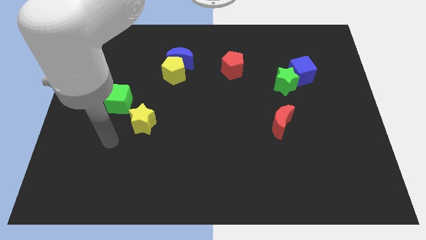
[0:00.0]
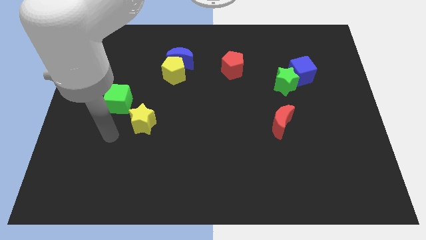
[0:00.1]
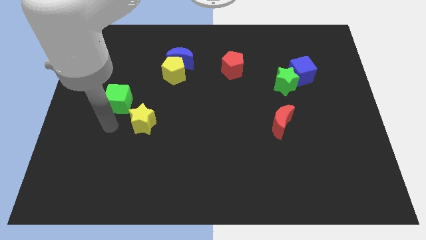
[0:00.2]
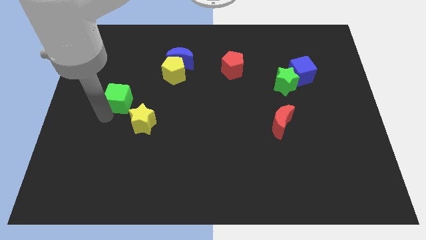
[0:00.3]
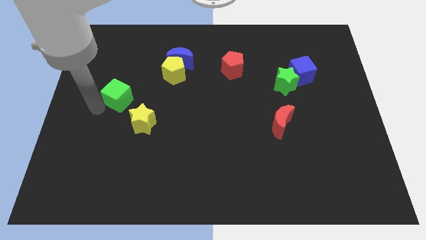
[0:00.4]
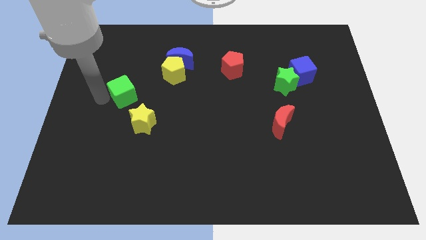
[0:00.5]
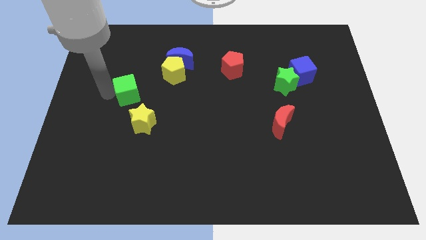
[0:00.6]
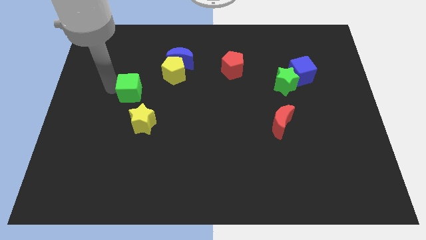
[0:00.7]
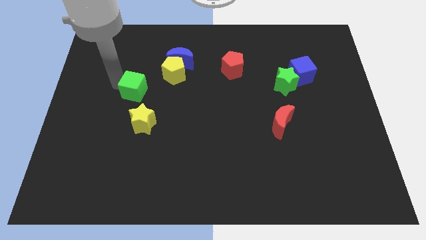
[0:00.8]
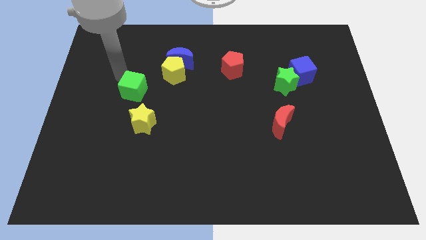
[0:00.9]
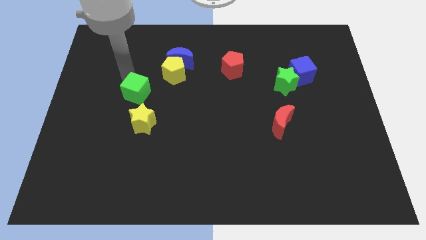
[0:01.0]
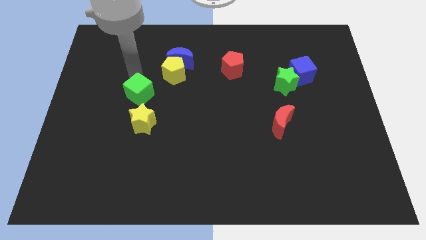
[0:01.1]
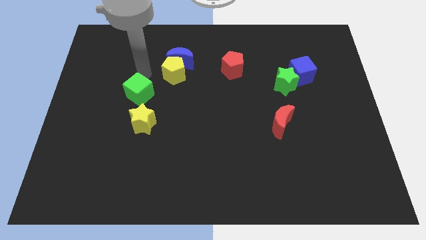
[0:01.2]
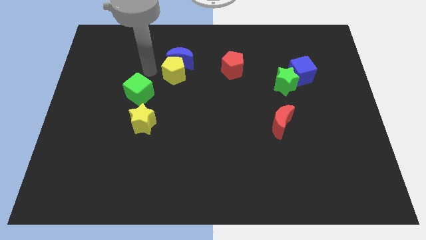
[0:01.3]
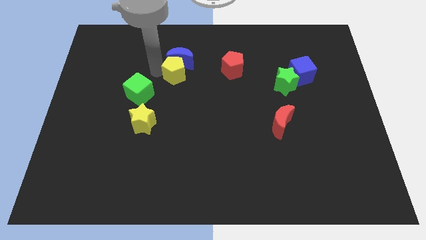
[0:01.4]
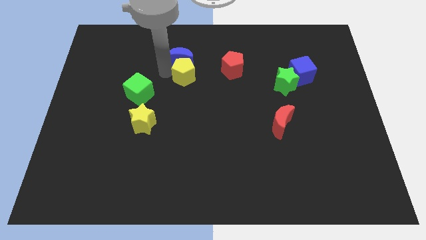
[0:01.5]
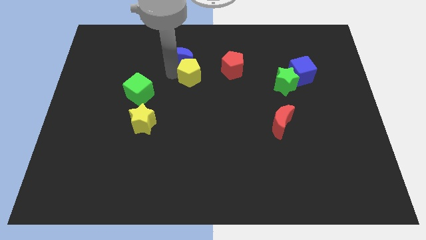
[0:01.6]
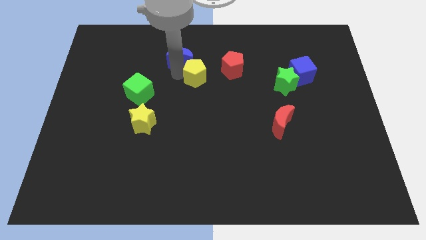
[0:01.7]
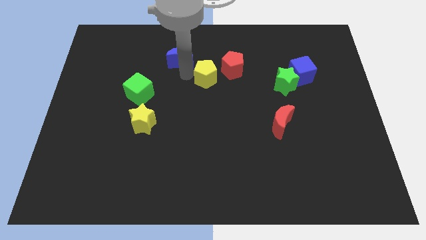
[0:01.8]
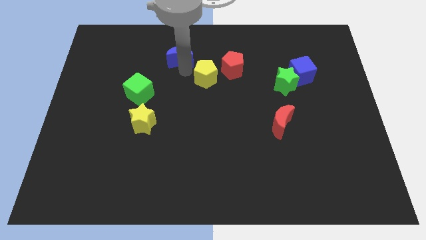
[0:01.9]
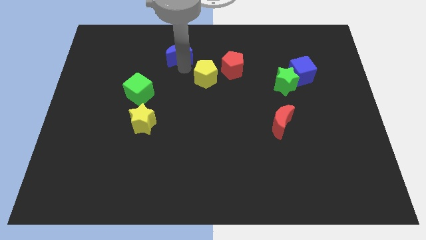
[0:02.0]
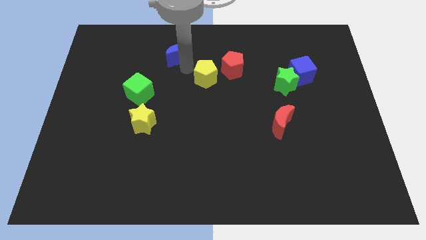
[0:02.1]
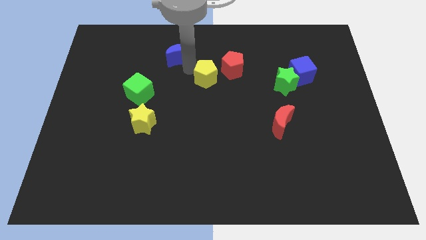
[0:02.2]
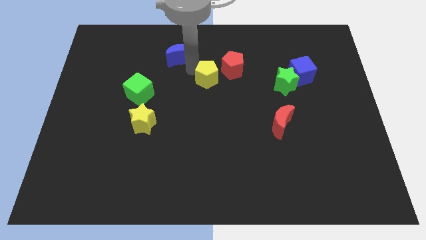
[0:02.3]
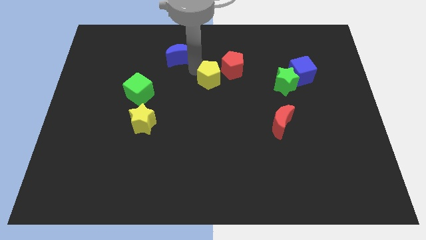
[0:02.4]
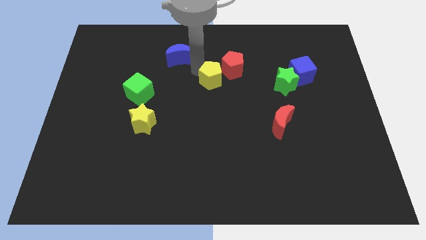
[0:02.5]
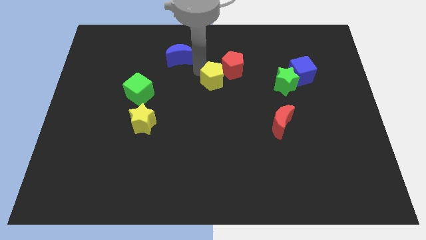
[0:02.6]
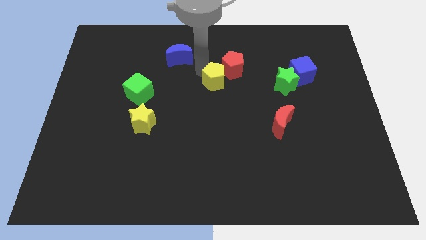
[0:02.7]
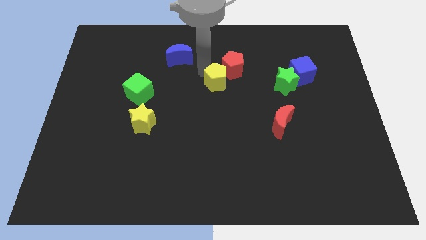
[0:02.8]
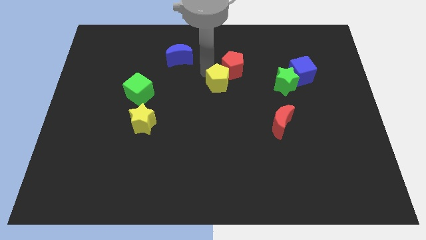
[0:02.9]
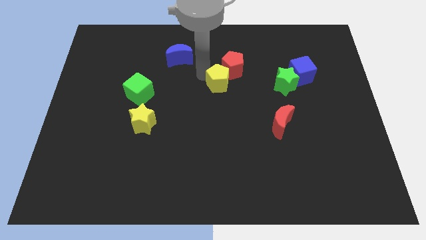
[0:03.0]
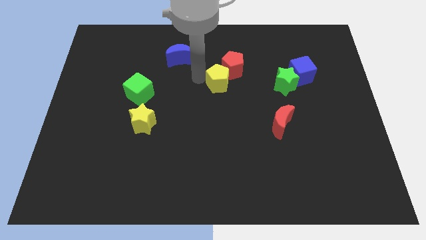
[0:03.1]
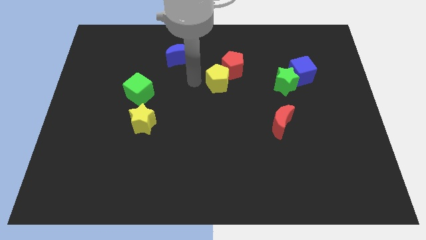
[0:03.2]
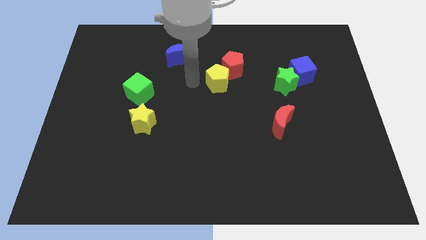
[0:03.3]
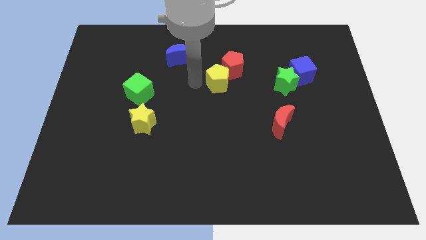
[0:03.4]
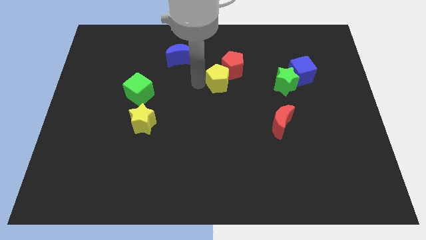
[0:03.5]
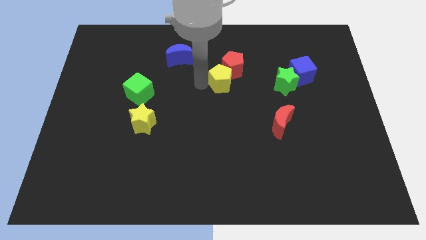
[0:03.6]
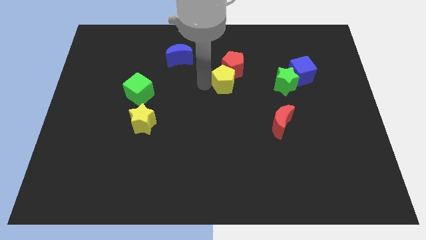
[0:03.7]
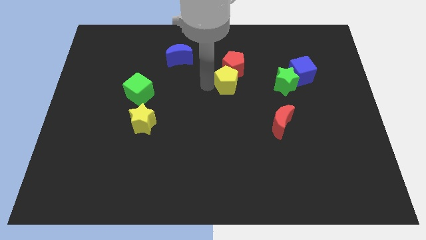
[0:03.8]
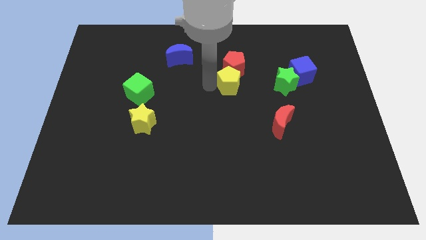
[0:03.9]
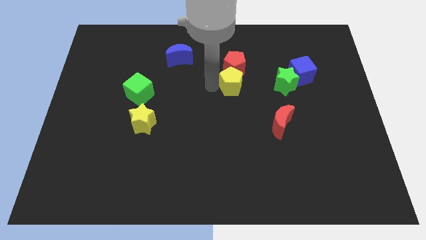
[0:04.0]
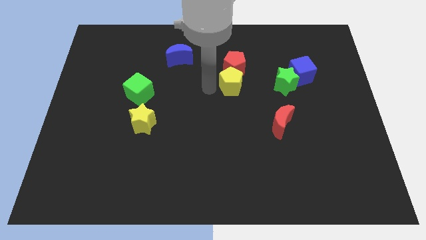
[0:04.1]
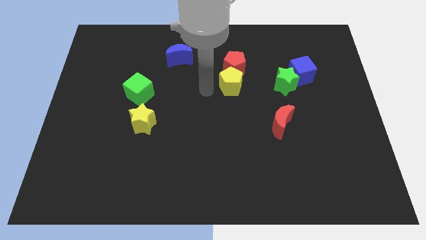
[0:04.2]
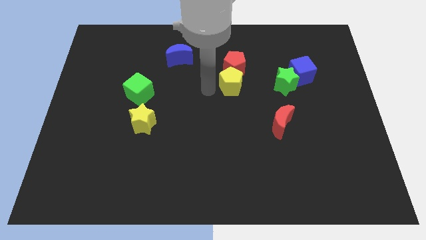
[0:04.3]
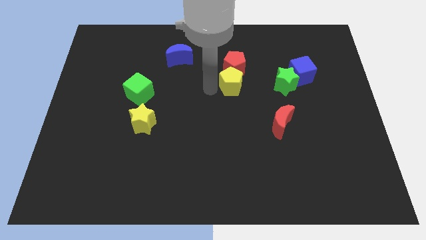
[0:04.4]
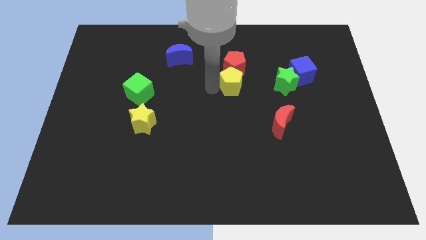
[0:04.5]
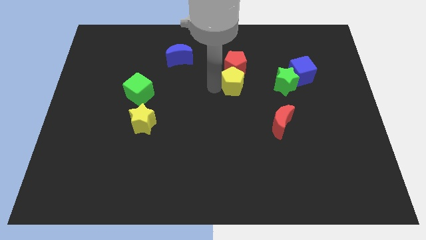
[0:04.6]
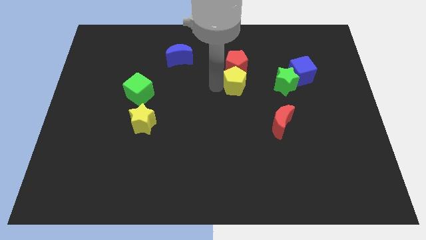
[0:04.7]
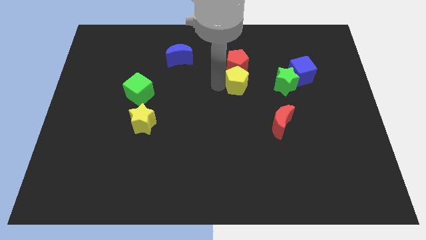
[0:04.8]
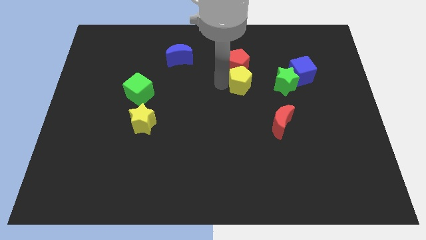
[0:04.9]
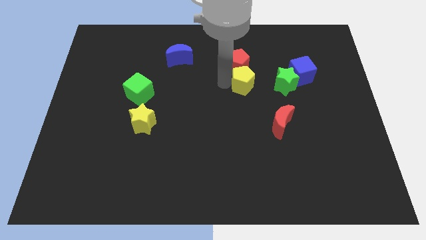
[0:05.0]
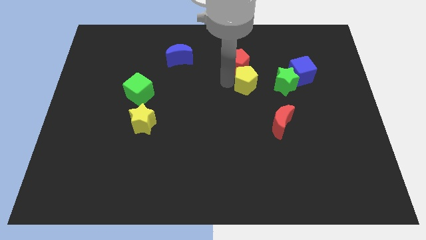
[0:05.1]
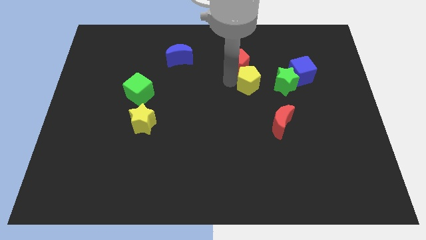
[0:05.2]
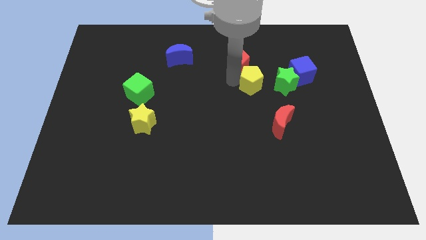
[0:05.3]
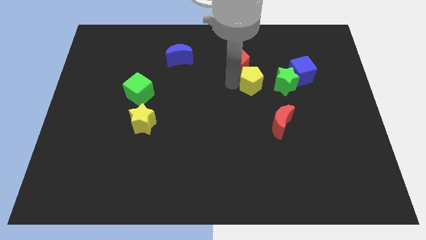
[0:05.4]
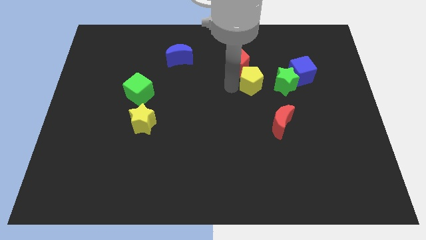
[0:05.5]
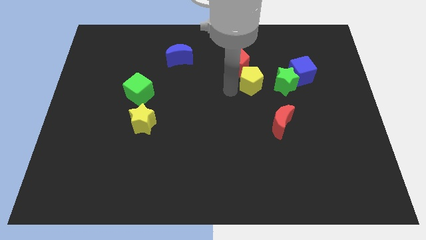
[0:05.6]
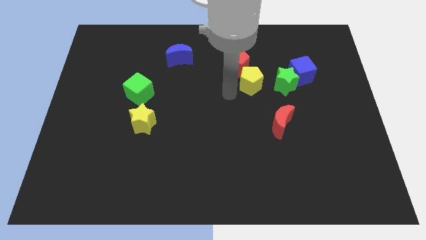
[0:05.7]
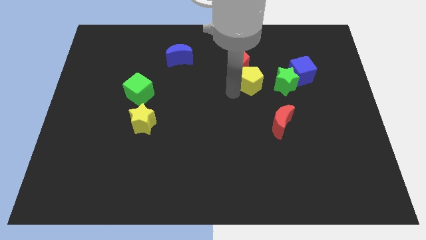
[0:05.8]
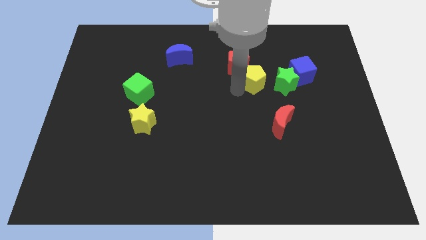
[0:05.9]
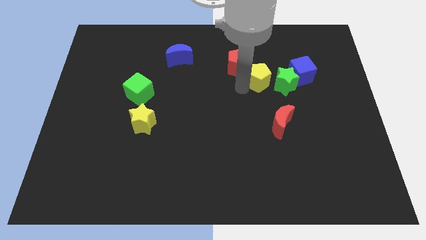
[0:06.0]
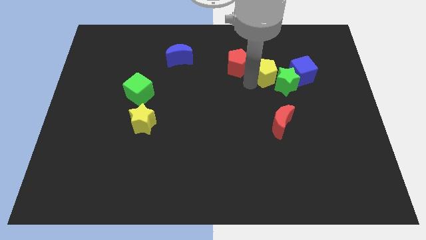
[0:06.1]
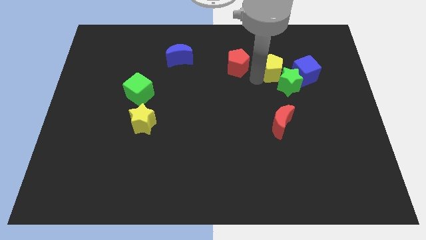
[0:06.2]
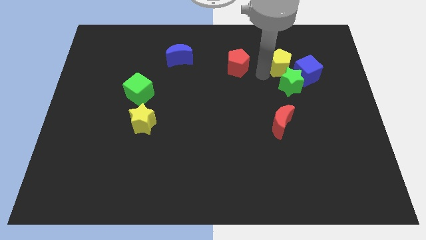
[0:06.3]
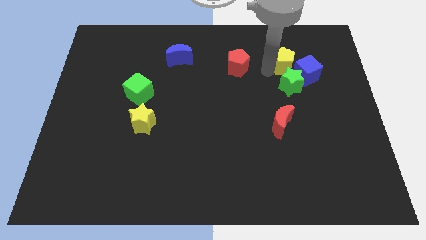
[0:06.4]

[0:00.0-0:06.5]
move the yellow pentagon close to the blue cube

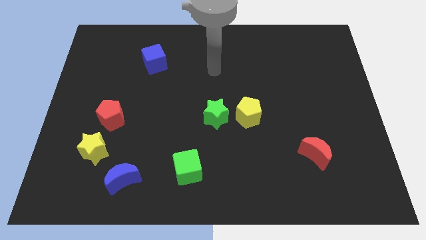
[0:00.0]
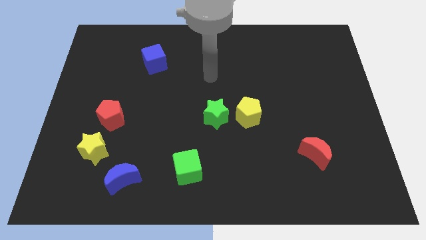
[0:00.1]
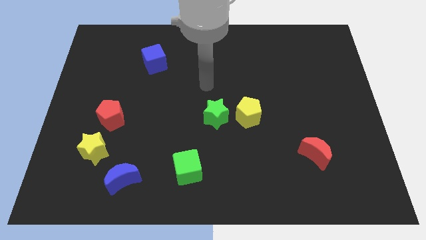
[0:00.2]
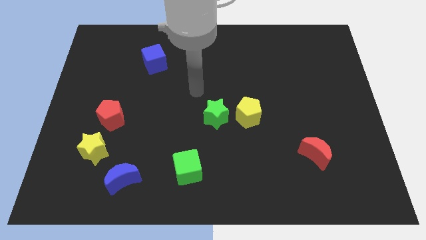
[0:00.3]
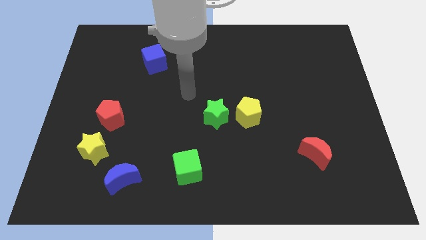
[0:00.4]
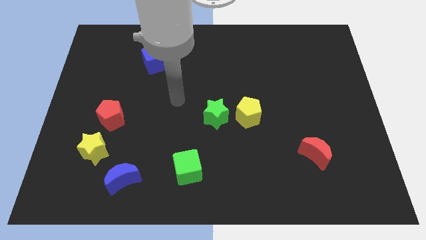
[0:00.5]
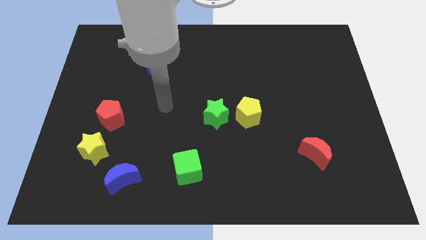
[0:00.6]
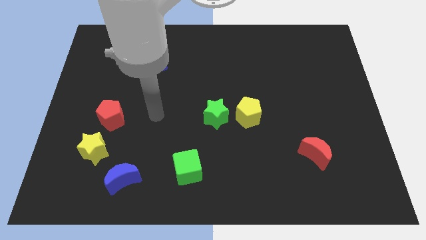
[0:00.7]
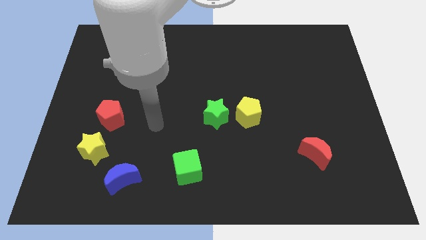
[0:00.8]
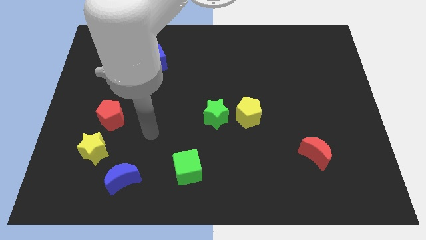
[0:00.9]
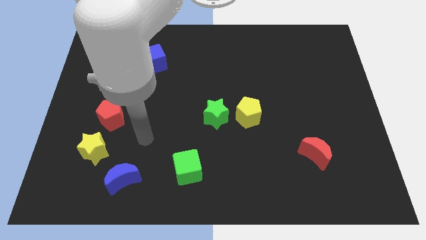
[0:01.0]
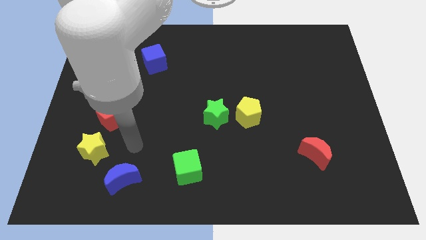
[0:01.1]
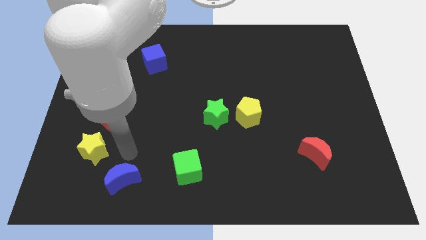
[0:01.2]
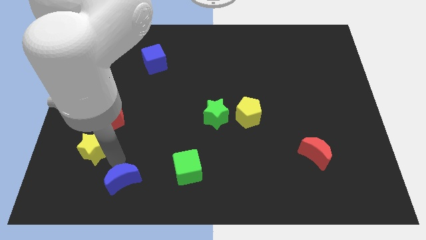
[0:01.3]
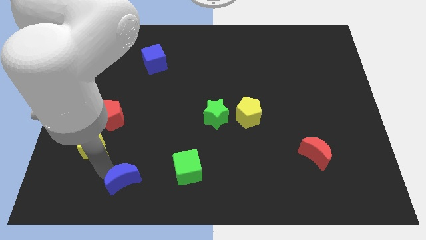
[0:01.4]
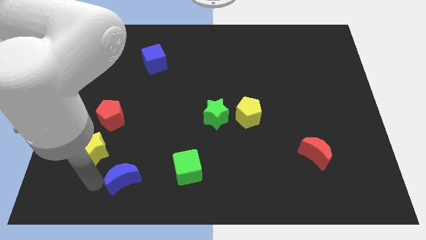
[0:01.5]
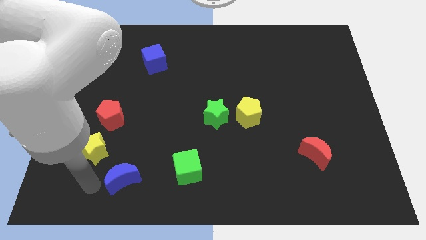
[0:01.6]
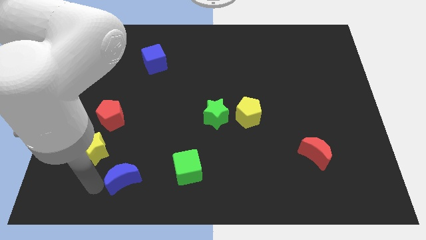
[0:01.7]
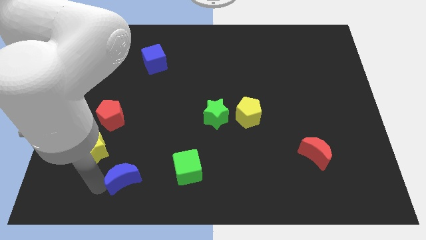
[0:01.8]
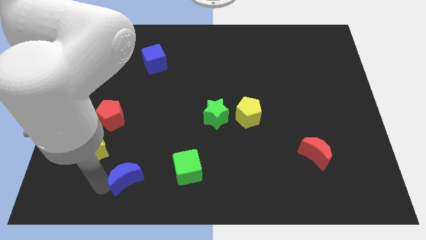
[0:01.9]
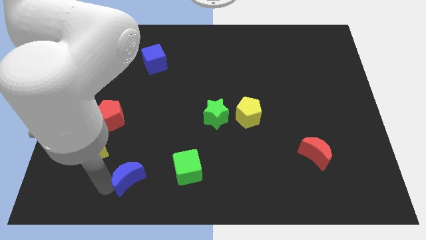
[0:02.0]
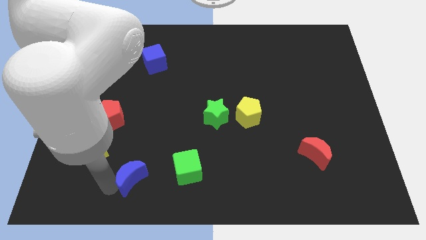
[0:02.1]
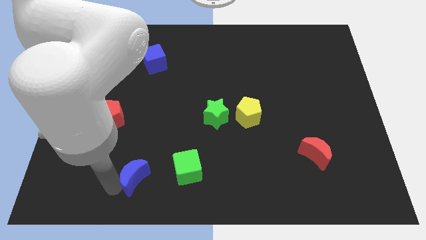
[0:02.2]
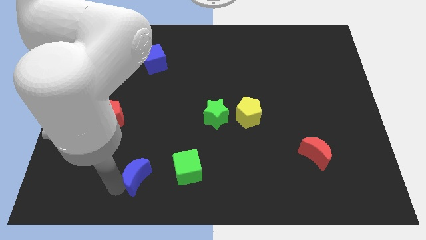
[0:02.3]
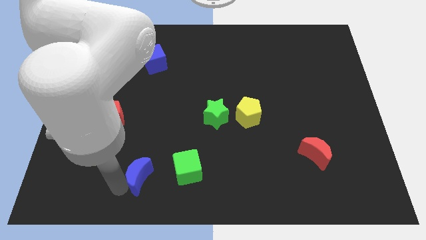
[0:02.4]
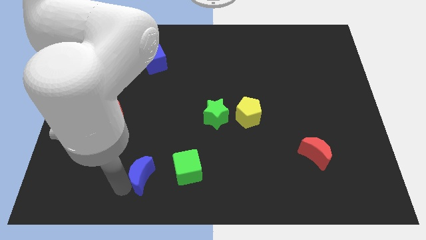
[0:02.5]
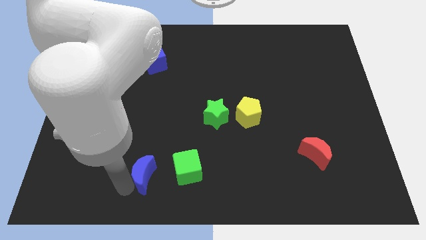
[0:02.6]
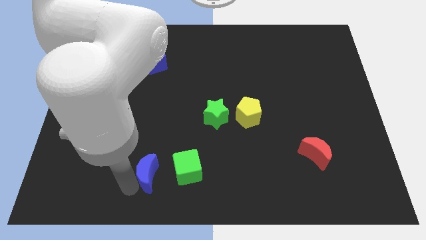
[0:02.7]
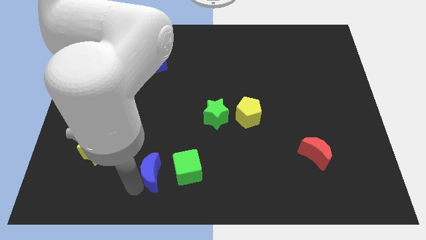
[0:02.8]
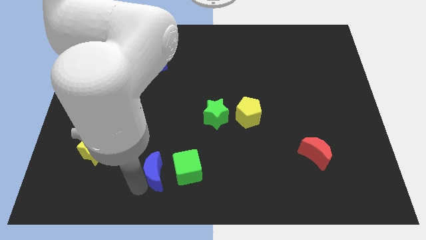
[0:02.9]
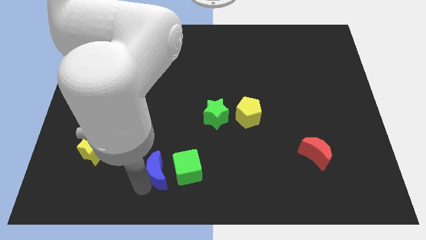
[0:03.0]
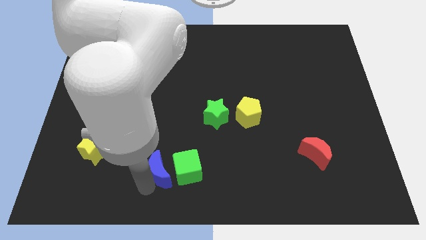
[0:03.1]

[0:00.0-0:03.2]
slide the blue moon to the green cube
